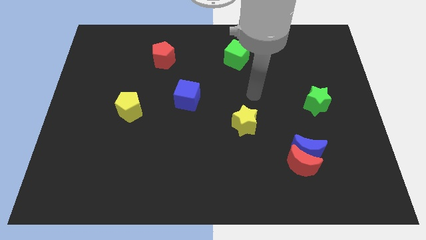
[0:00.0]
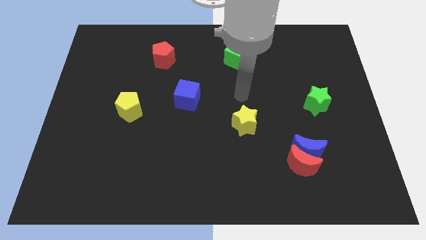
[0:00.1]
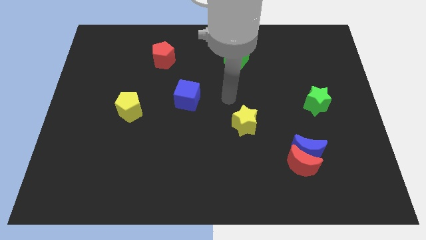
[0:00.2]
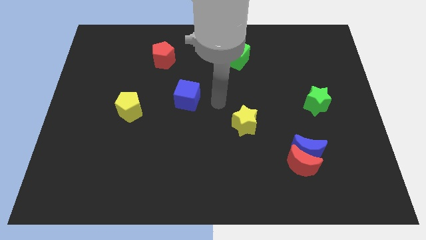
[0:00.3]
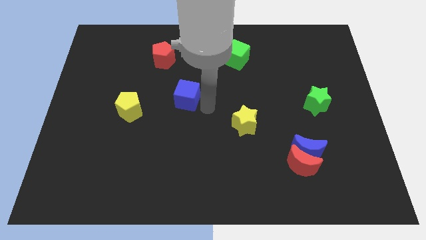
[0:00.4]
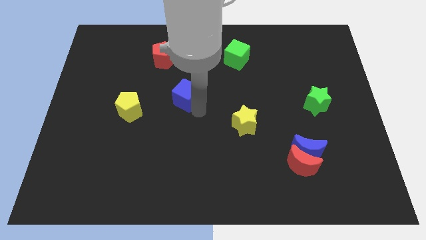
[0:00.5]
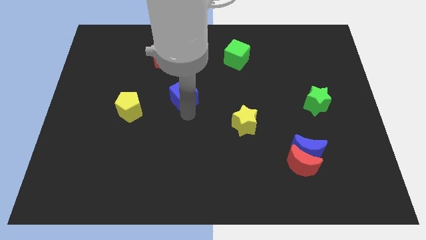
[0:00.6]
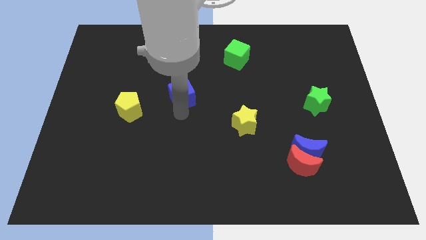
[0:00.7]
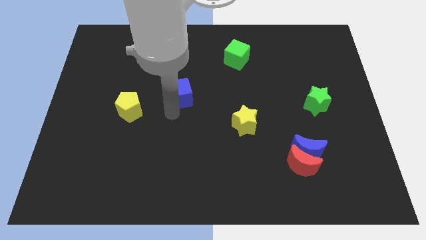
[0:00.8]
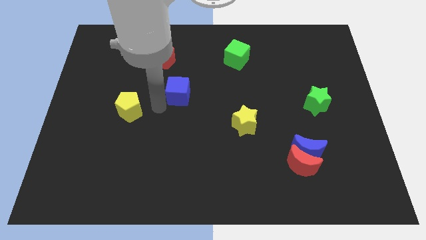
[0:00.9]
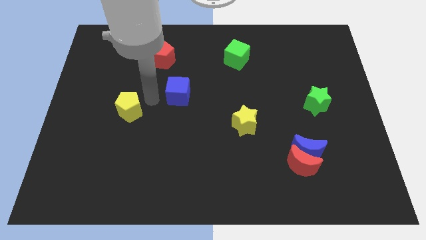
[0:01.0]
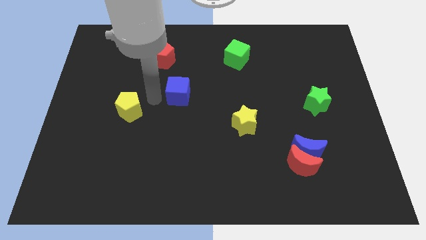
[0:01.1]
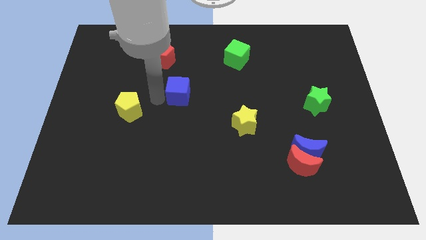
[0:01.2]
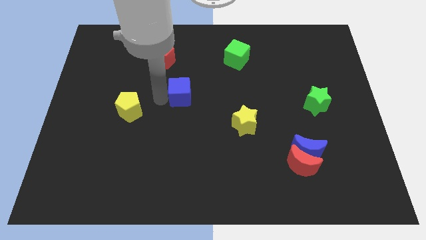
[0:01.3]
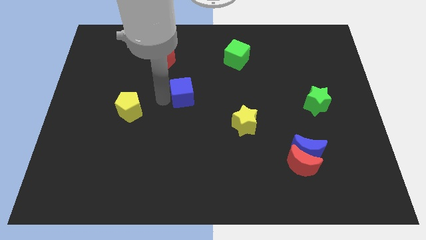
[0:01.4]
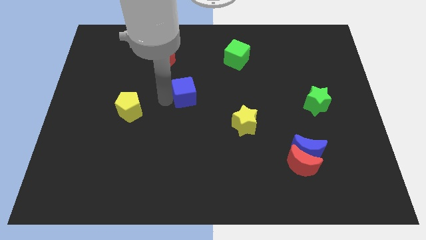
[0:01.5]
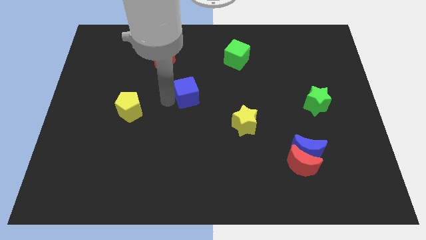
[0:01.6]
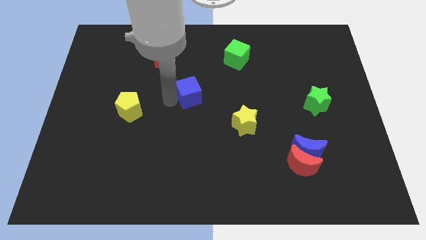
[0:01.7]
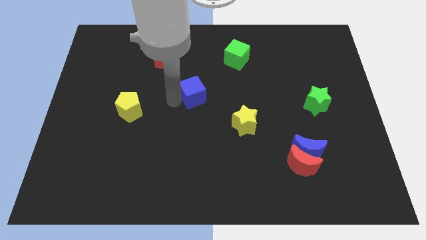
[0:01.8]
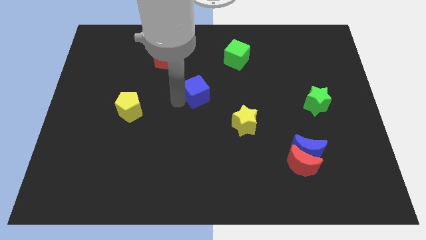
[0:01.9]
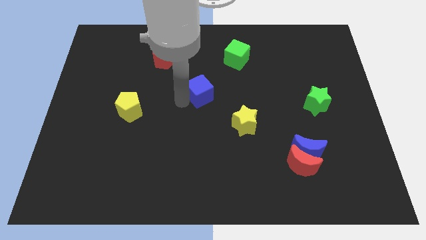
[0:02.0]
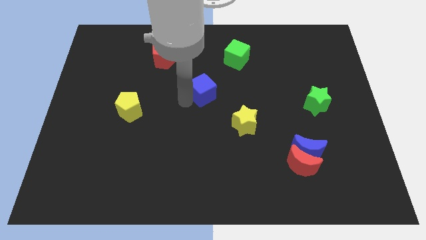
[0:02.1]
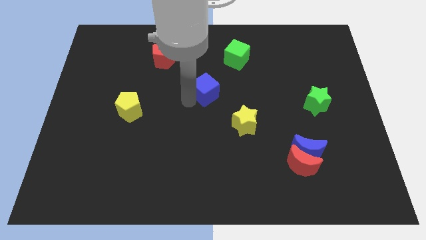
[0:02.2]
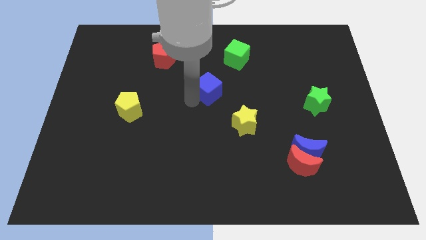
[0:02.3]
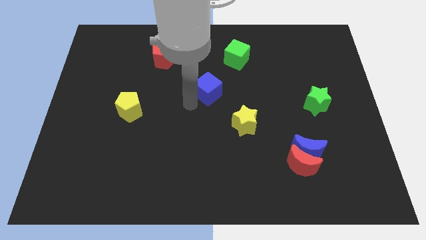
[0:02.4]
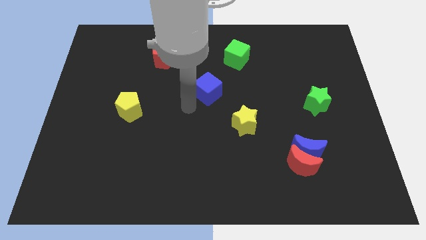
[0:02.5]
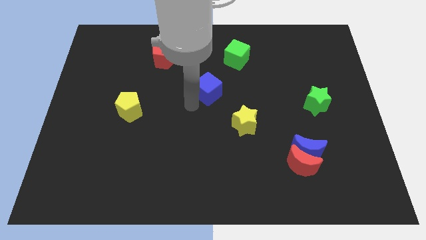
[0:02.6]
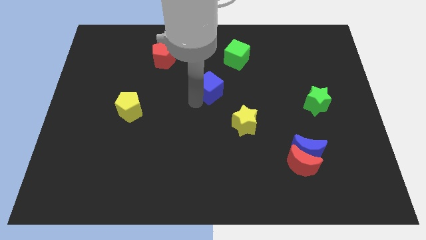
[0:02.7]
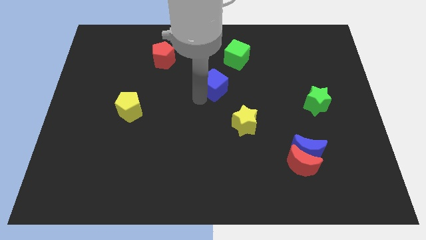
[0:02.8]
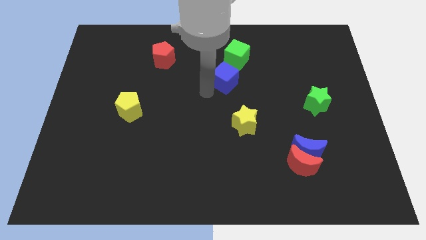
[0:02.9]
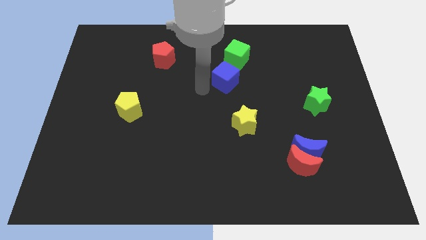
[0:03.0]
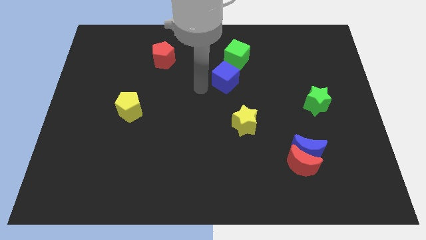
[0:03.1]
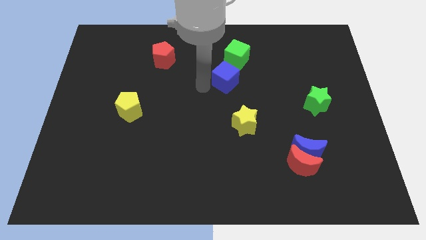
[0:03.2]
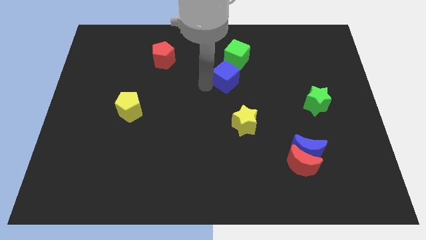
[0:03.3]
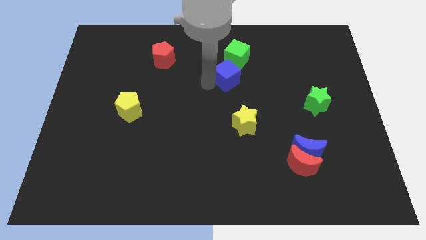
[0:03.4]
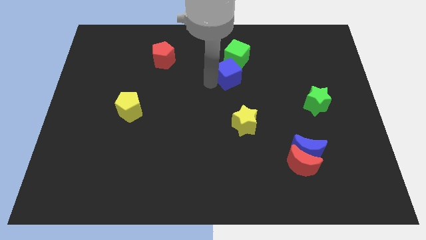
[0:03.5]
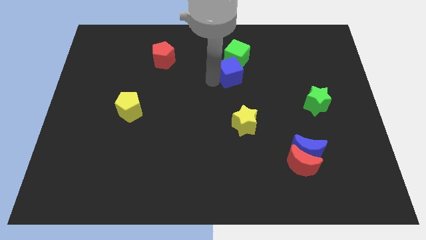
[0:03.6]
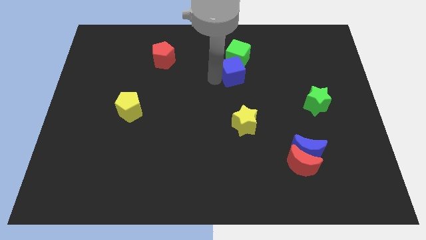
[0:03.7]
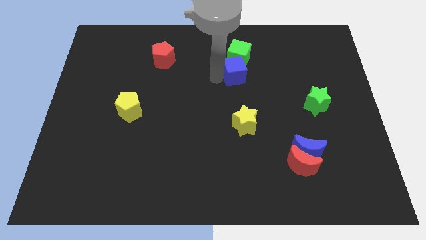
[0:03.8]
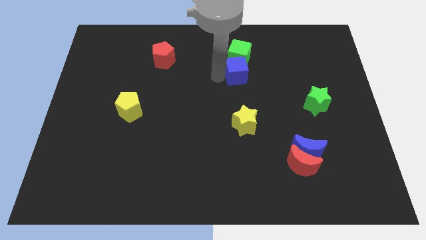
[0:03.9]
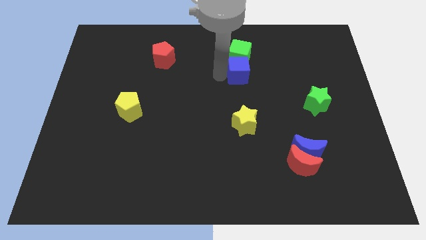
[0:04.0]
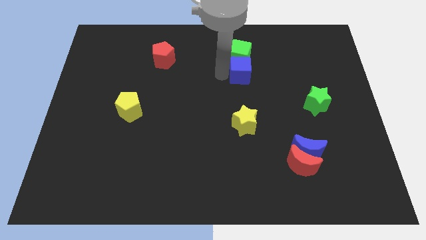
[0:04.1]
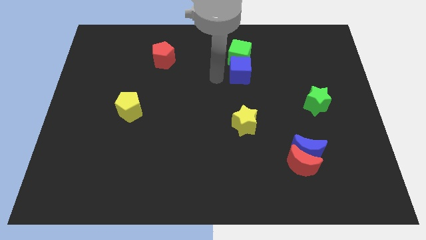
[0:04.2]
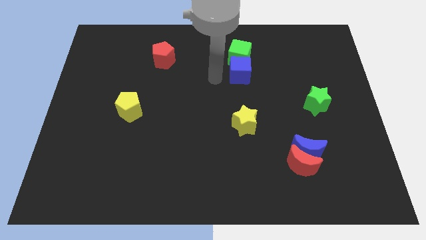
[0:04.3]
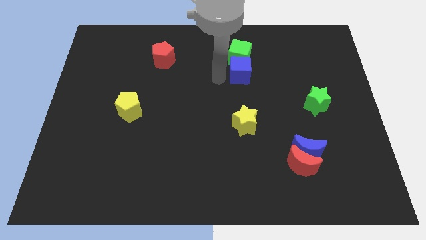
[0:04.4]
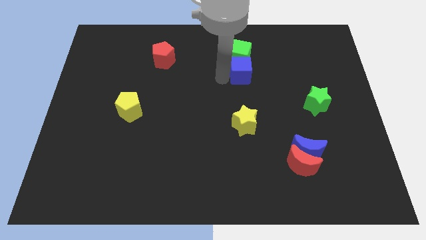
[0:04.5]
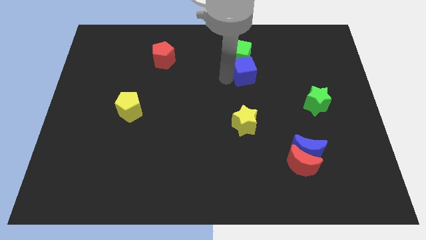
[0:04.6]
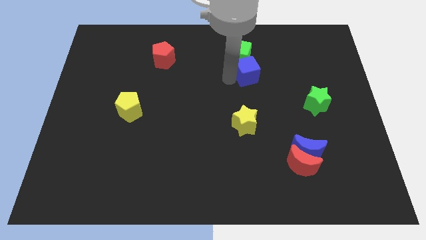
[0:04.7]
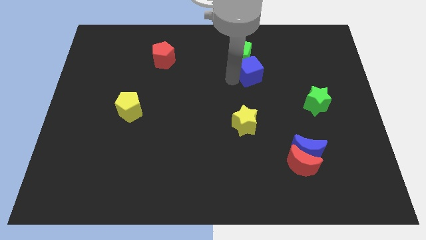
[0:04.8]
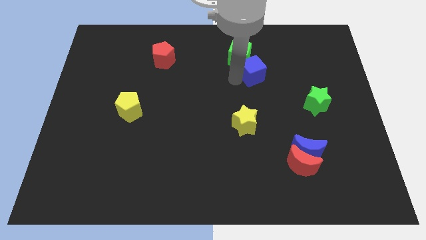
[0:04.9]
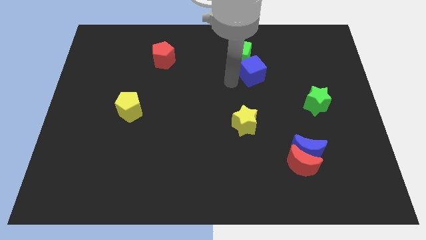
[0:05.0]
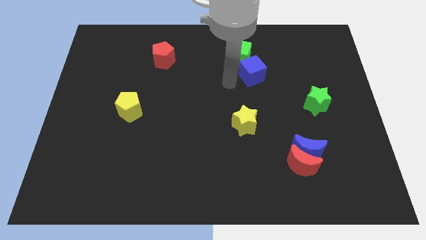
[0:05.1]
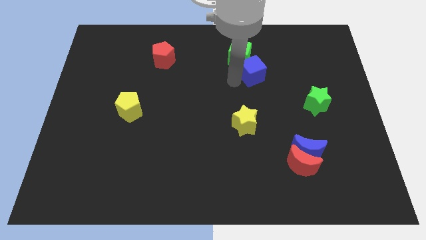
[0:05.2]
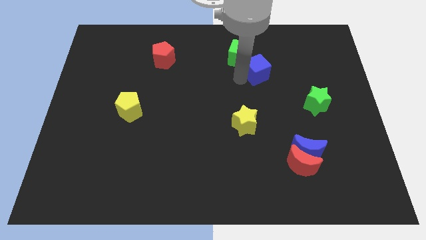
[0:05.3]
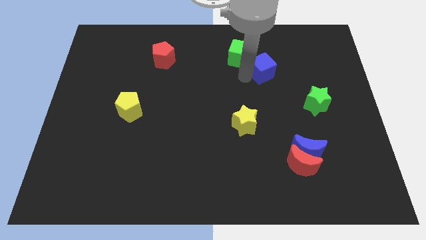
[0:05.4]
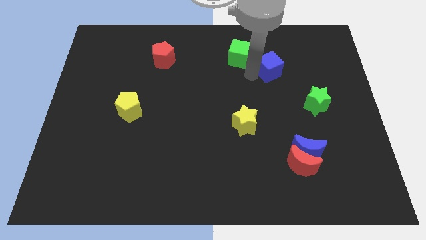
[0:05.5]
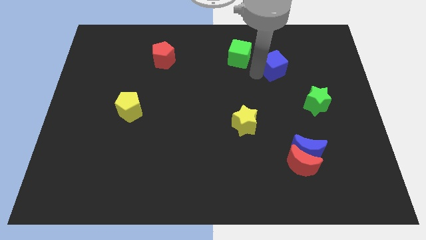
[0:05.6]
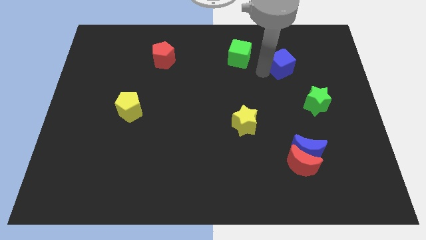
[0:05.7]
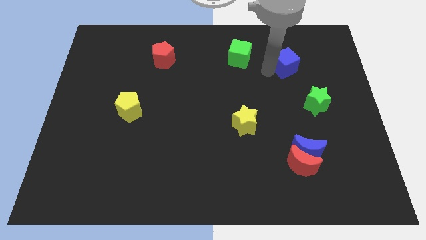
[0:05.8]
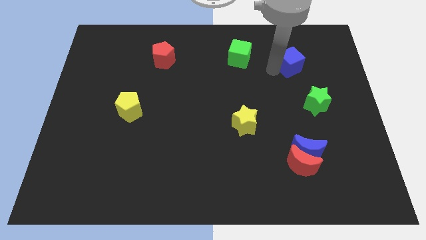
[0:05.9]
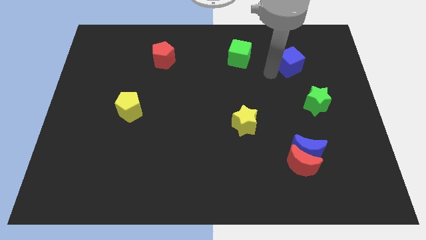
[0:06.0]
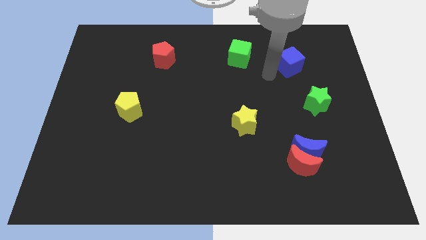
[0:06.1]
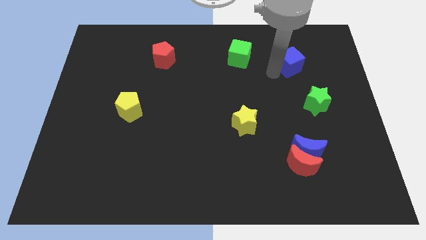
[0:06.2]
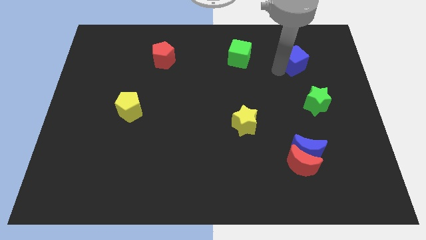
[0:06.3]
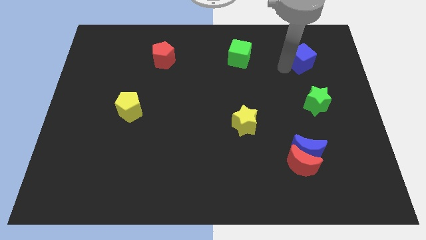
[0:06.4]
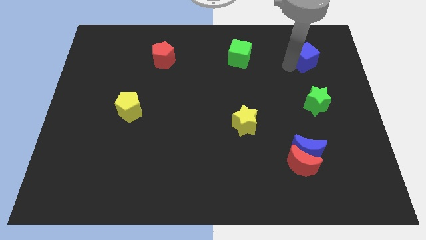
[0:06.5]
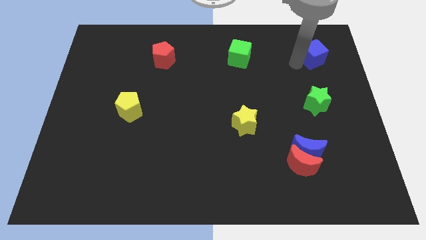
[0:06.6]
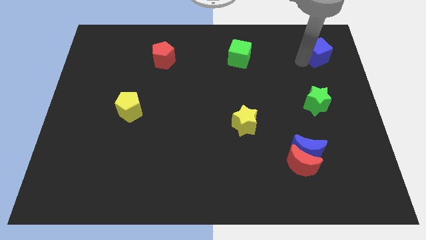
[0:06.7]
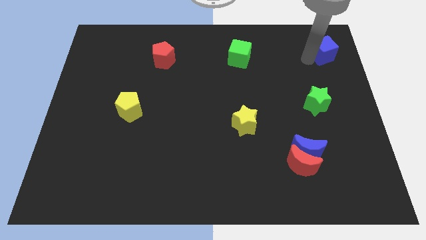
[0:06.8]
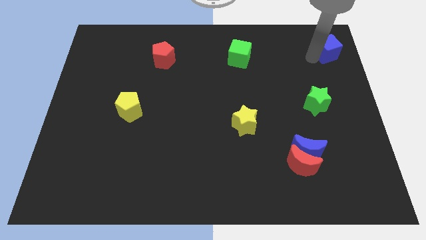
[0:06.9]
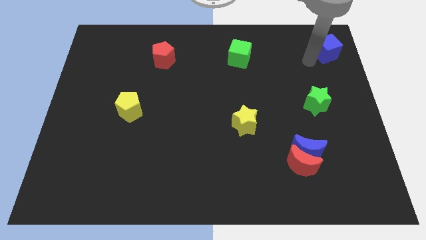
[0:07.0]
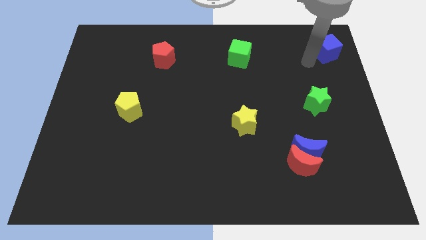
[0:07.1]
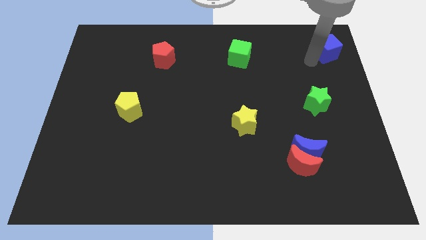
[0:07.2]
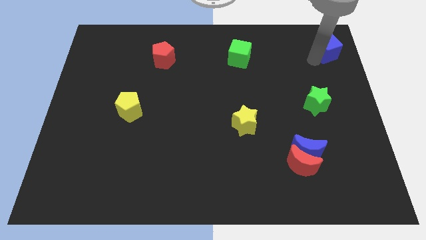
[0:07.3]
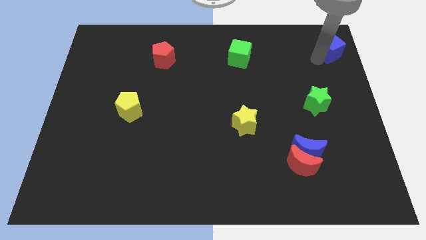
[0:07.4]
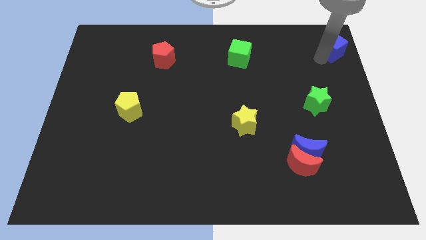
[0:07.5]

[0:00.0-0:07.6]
move the blue cube to the top right of the board
